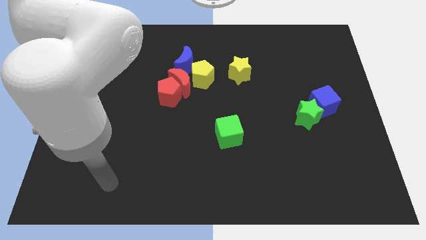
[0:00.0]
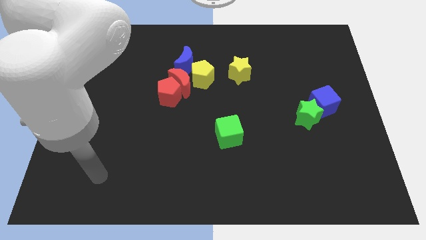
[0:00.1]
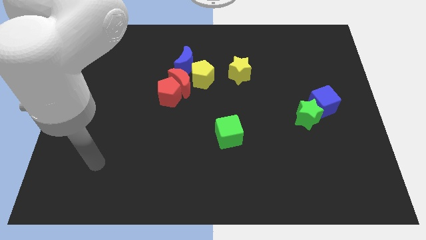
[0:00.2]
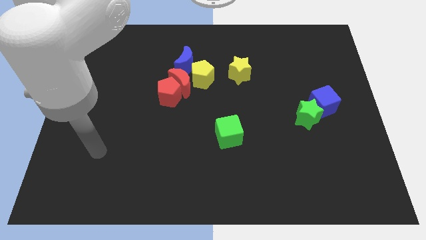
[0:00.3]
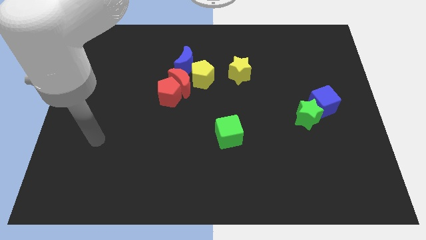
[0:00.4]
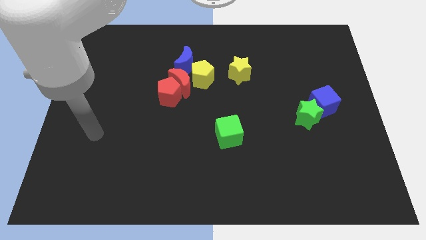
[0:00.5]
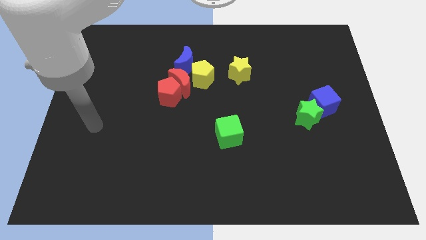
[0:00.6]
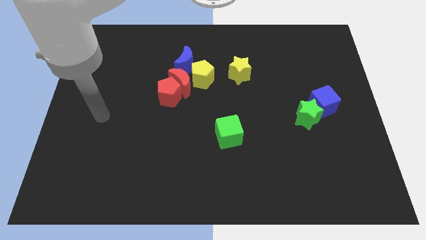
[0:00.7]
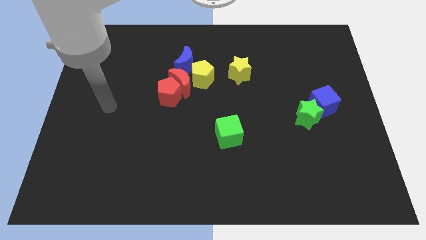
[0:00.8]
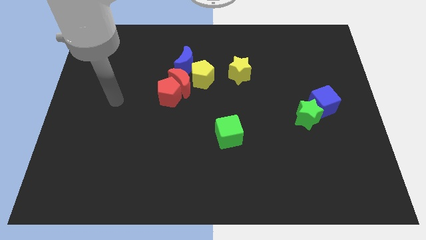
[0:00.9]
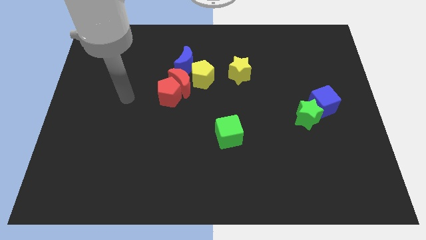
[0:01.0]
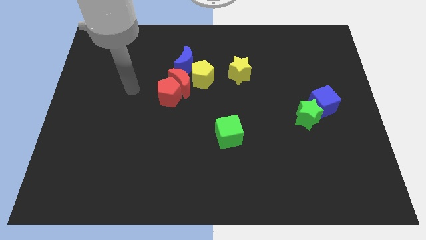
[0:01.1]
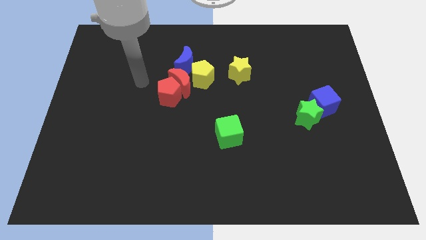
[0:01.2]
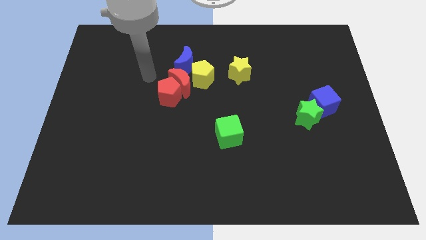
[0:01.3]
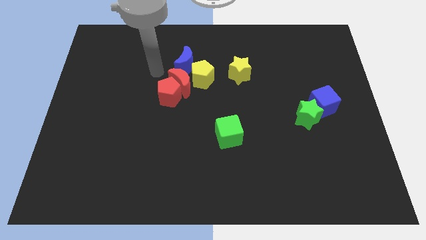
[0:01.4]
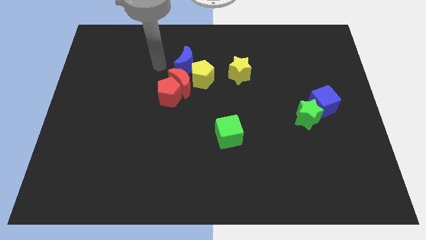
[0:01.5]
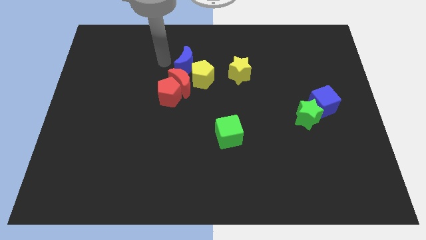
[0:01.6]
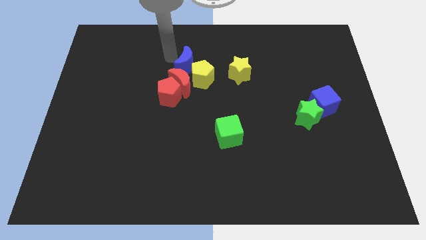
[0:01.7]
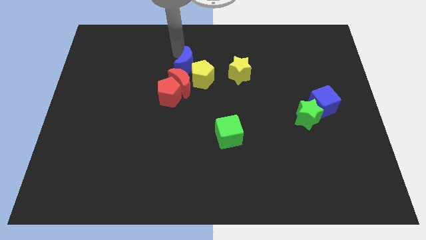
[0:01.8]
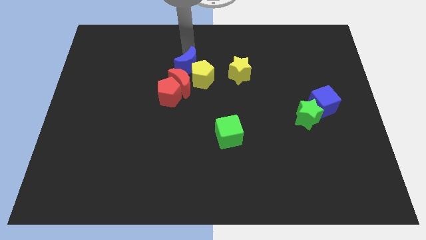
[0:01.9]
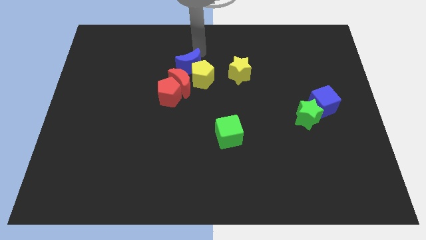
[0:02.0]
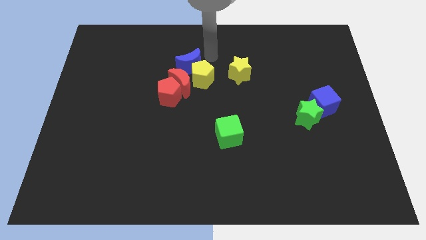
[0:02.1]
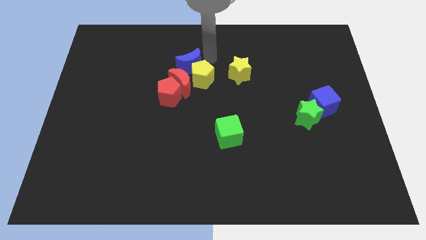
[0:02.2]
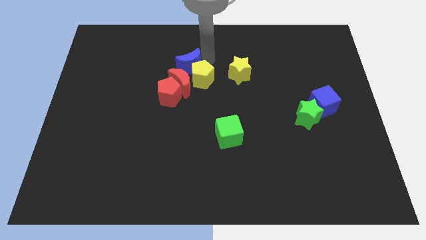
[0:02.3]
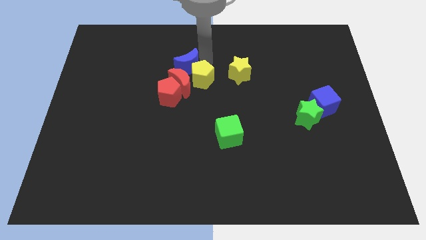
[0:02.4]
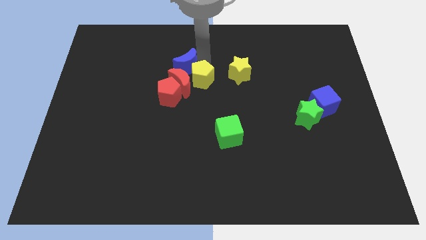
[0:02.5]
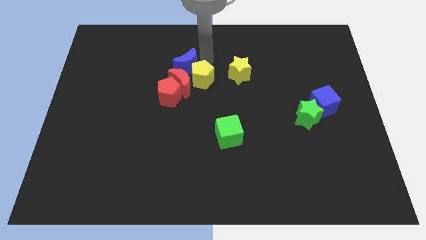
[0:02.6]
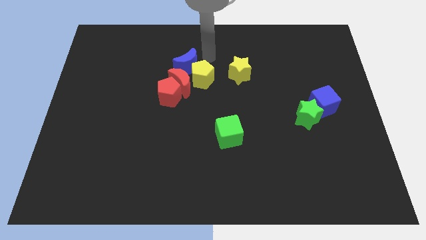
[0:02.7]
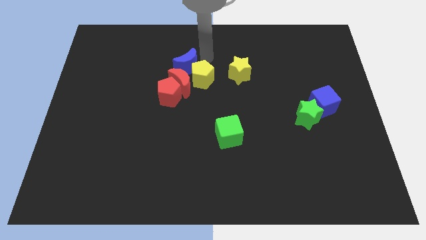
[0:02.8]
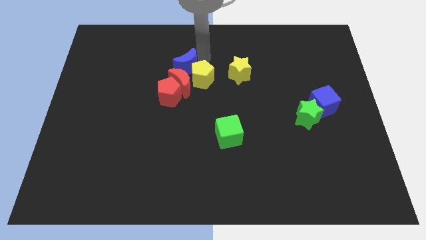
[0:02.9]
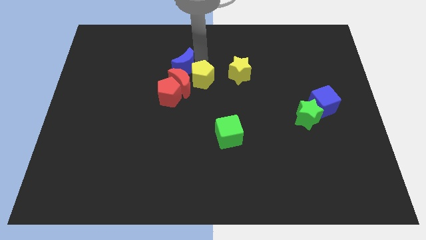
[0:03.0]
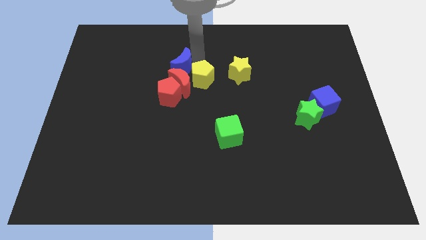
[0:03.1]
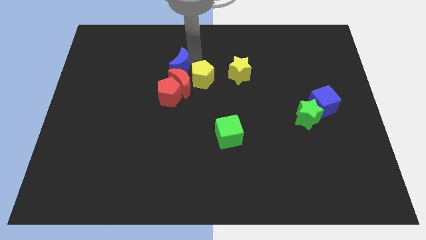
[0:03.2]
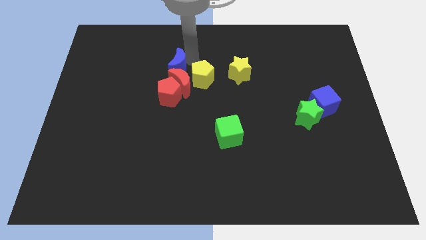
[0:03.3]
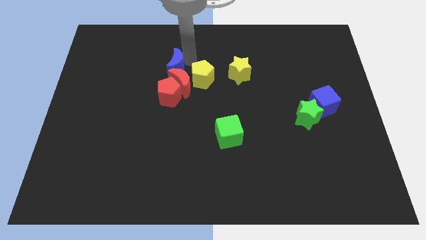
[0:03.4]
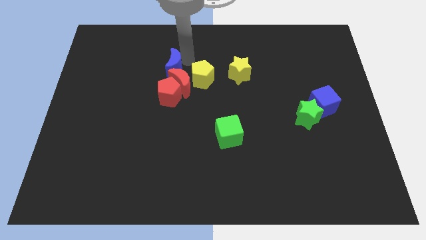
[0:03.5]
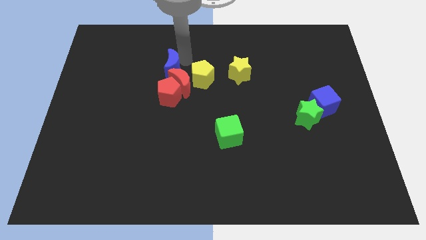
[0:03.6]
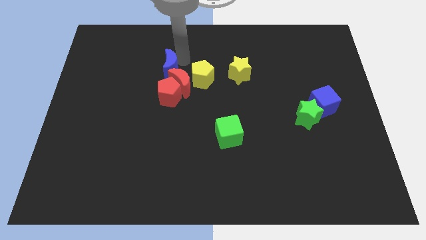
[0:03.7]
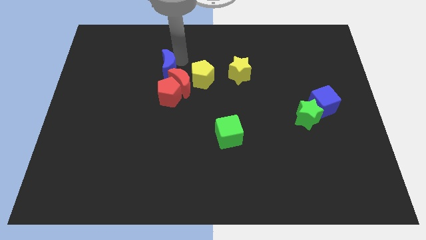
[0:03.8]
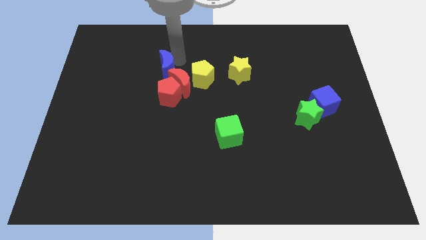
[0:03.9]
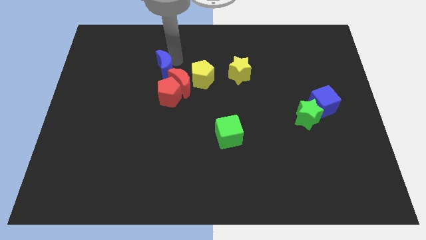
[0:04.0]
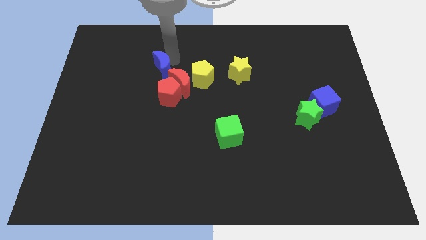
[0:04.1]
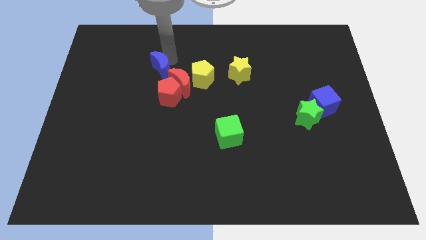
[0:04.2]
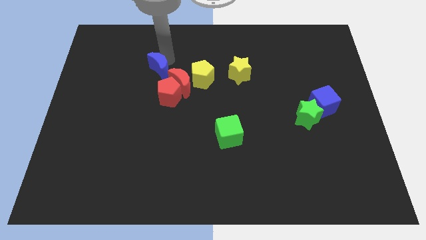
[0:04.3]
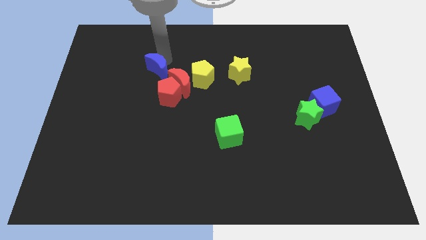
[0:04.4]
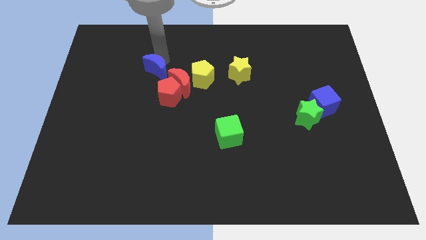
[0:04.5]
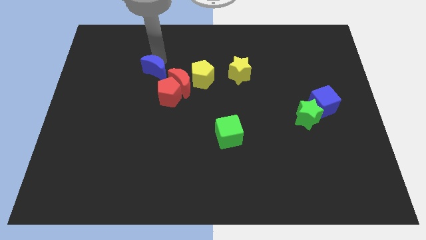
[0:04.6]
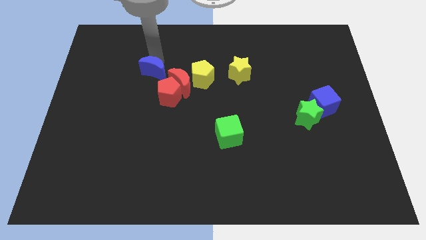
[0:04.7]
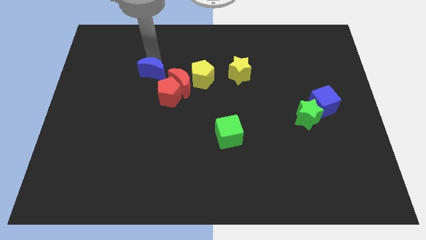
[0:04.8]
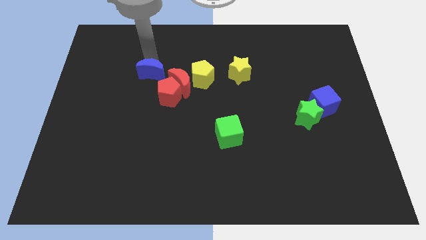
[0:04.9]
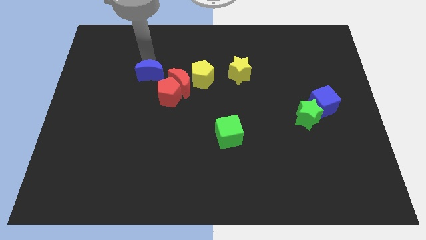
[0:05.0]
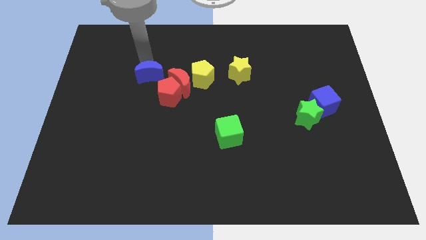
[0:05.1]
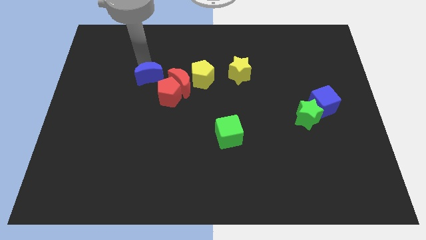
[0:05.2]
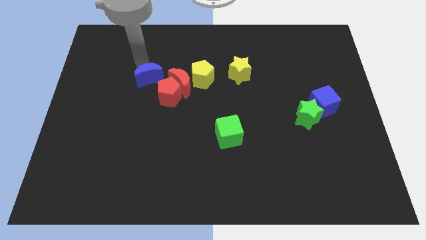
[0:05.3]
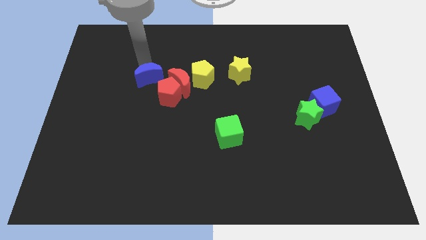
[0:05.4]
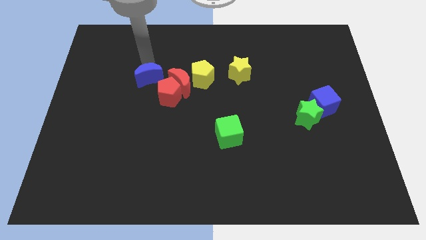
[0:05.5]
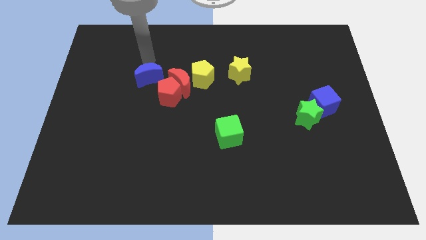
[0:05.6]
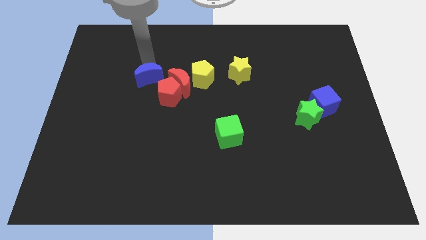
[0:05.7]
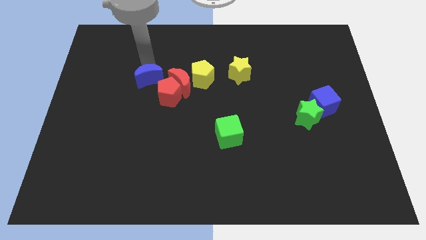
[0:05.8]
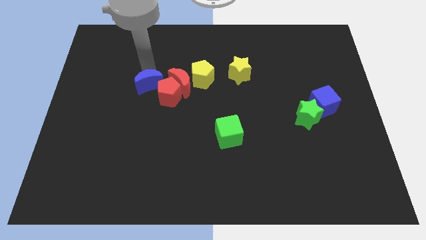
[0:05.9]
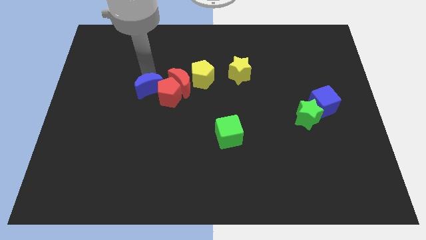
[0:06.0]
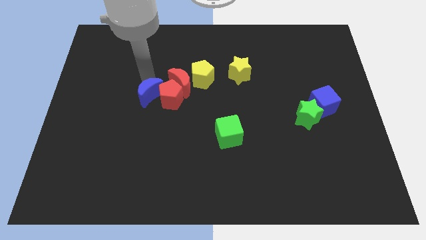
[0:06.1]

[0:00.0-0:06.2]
slightly push the blue moon down

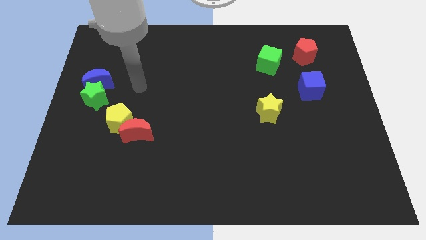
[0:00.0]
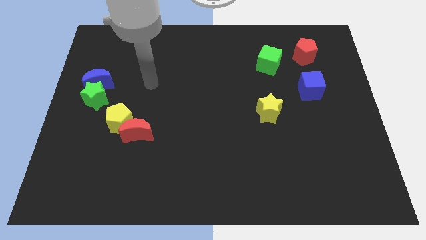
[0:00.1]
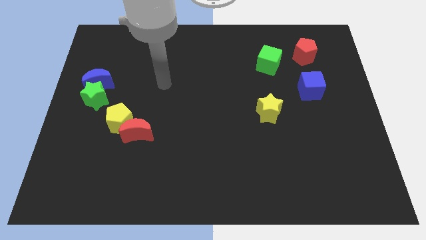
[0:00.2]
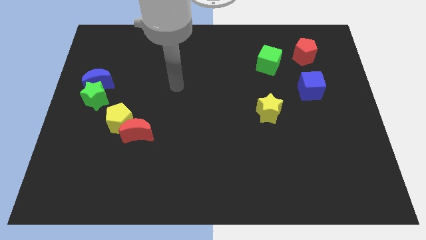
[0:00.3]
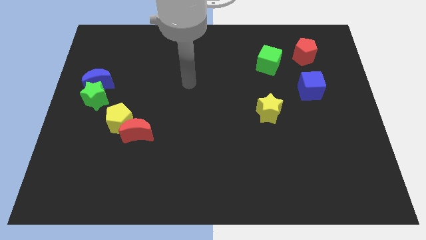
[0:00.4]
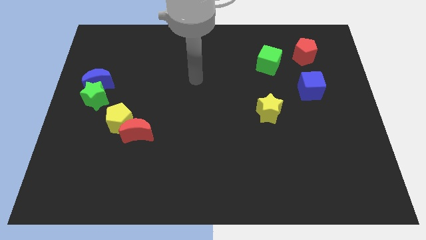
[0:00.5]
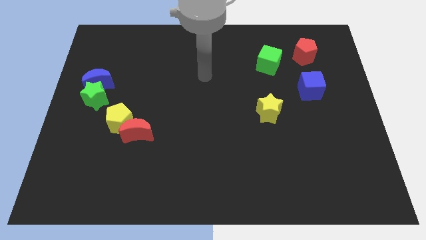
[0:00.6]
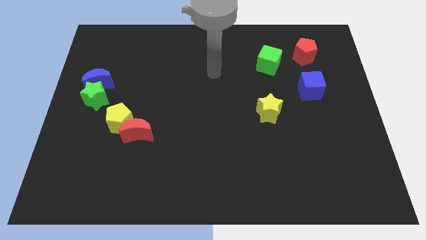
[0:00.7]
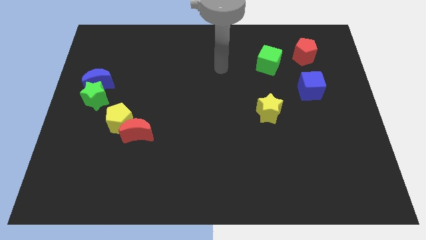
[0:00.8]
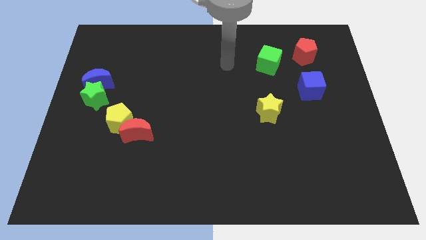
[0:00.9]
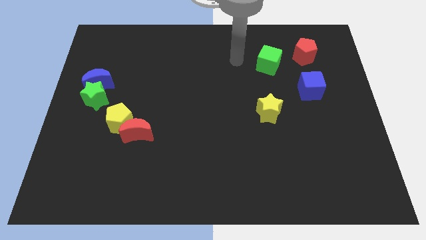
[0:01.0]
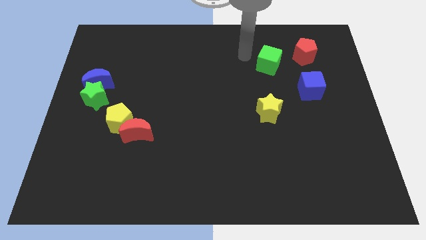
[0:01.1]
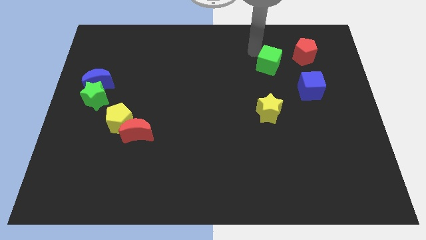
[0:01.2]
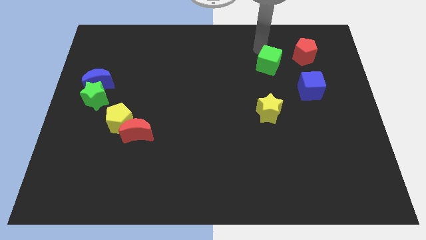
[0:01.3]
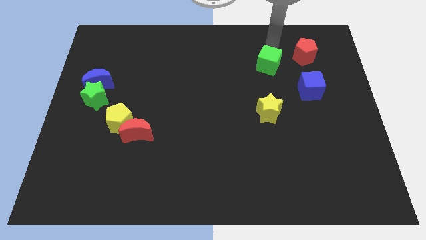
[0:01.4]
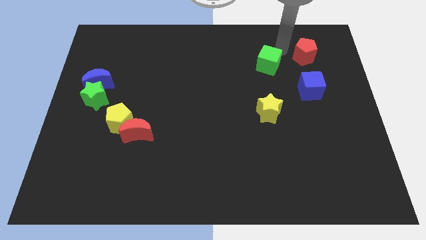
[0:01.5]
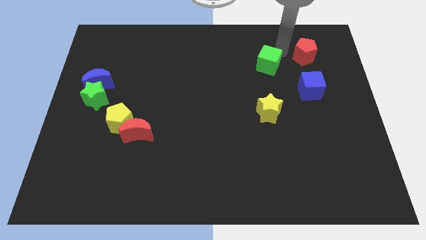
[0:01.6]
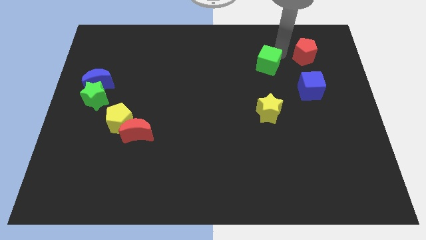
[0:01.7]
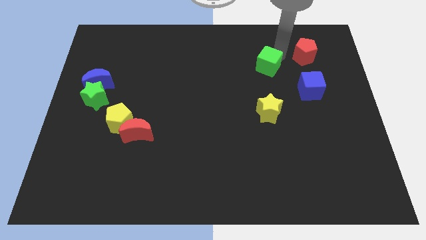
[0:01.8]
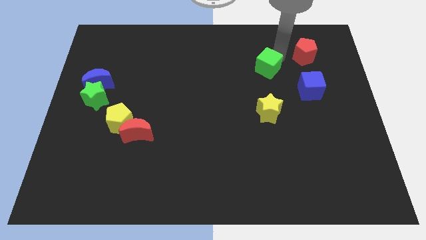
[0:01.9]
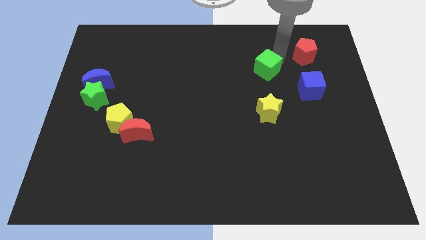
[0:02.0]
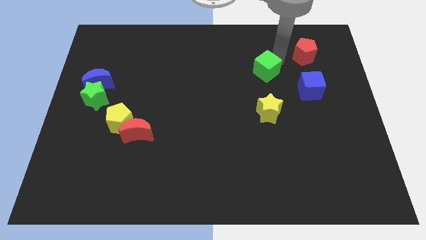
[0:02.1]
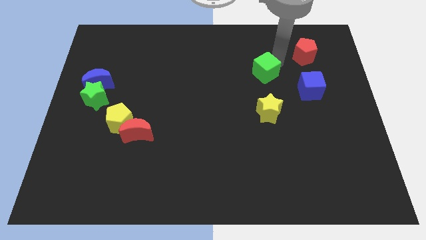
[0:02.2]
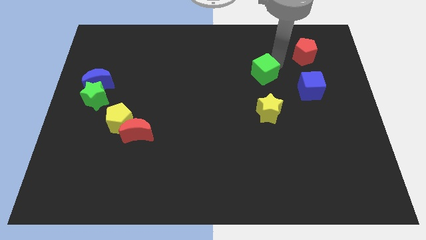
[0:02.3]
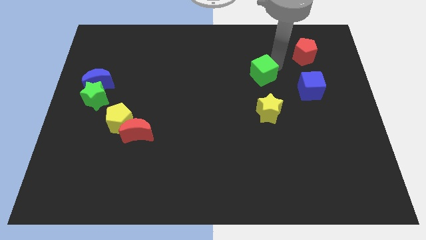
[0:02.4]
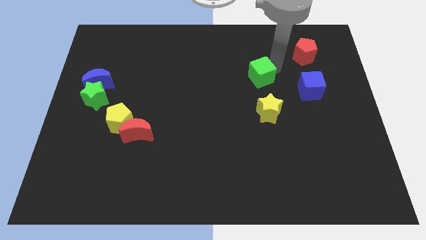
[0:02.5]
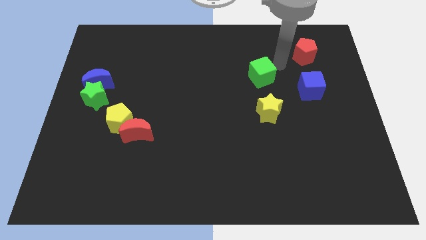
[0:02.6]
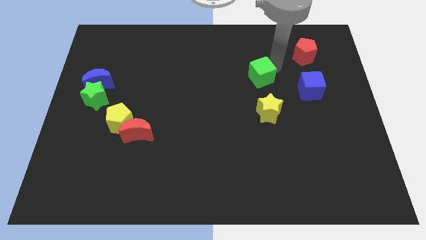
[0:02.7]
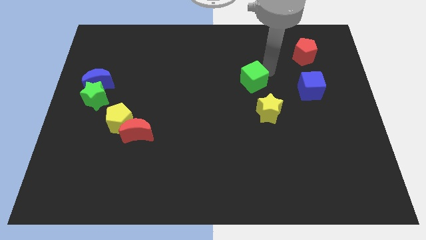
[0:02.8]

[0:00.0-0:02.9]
slide the green cube somewhat downwards and left
